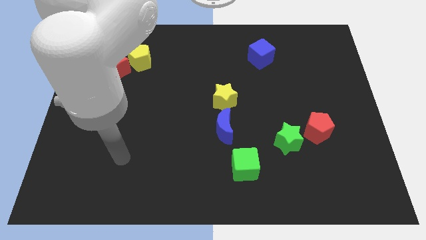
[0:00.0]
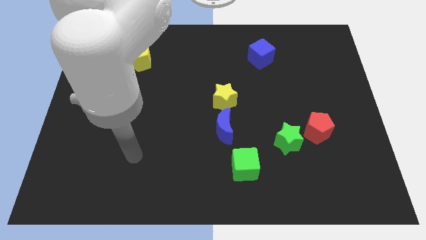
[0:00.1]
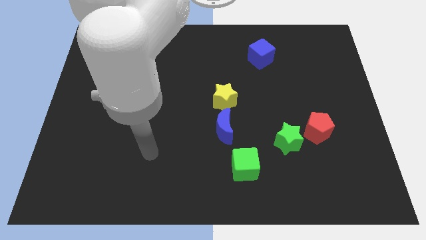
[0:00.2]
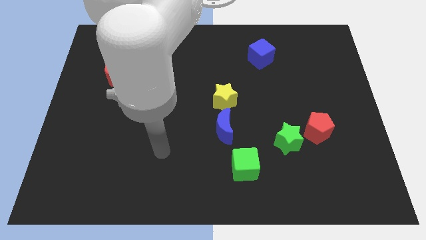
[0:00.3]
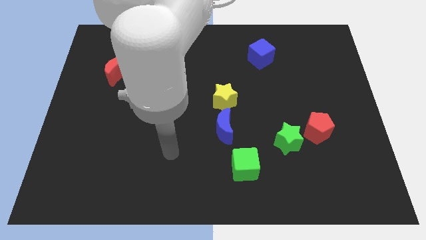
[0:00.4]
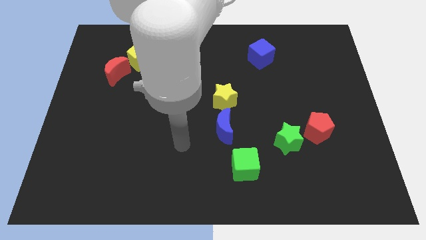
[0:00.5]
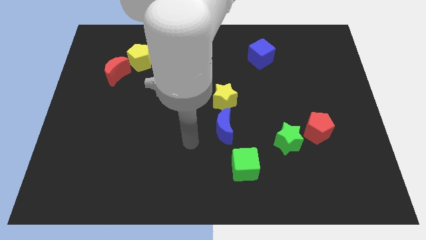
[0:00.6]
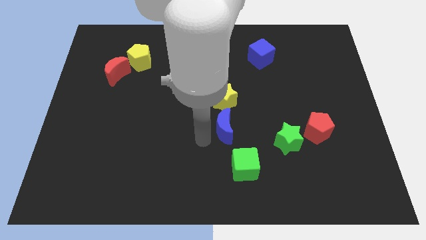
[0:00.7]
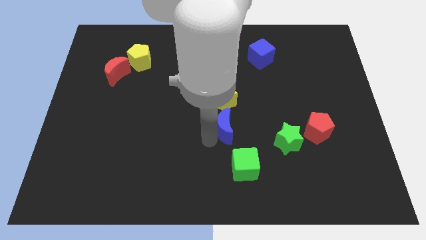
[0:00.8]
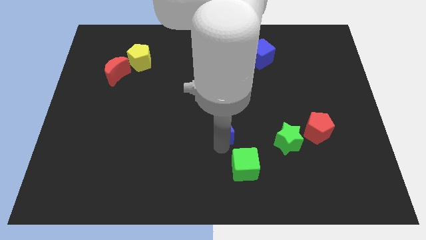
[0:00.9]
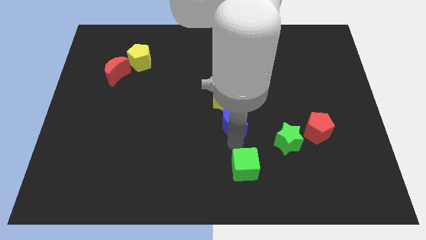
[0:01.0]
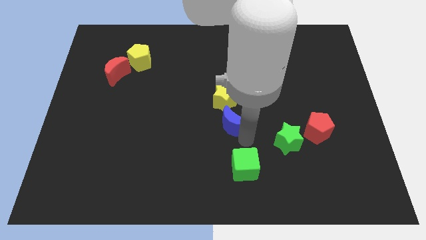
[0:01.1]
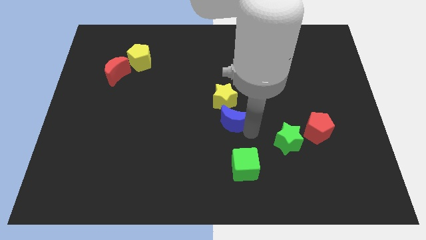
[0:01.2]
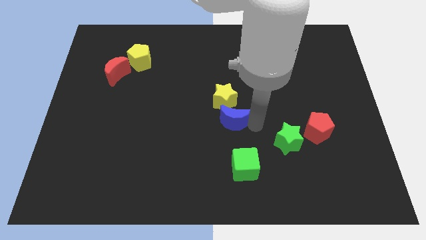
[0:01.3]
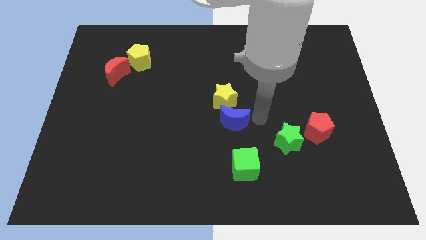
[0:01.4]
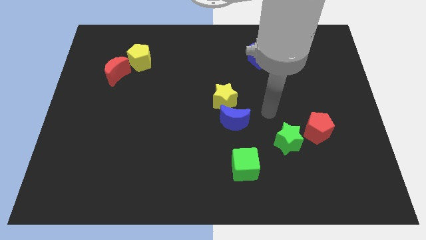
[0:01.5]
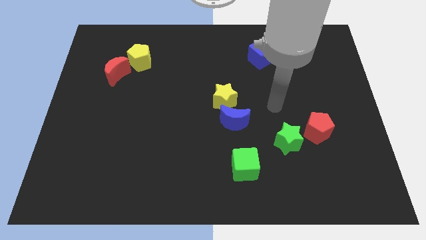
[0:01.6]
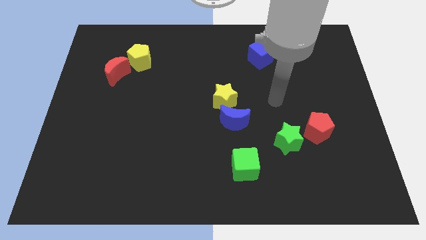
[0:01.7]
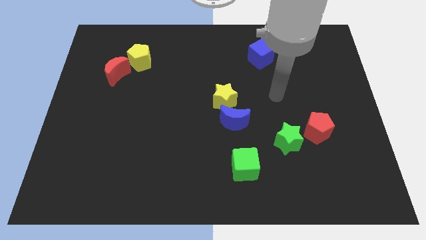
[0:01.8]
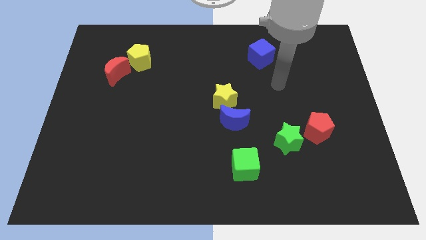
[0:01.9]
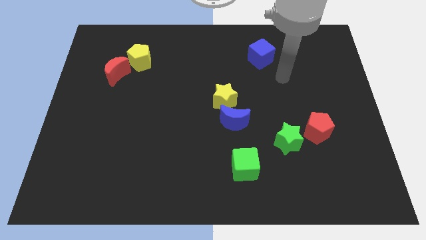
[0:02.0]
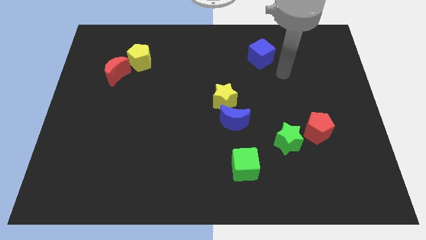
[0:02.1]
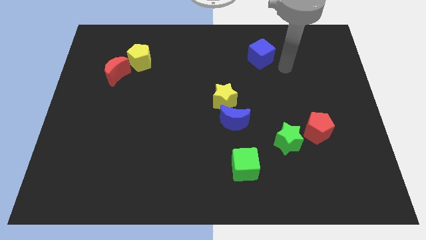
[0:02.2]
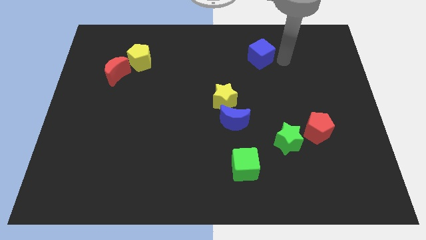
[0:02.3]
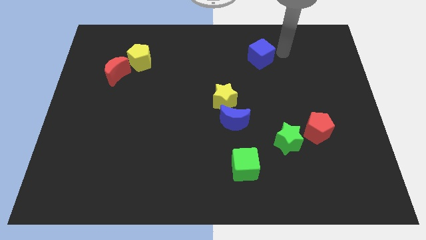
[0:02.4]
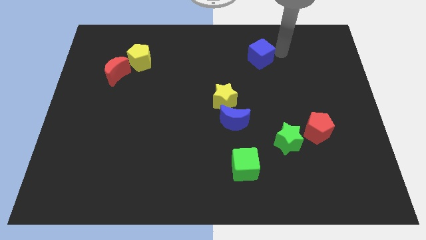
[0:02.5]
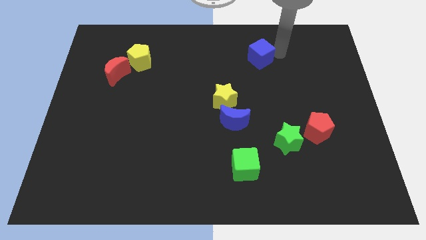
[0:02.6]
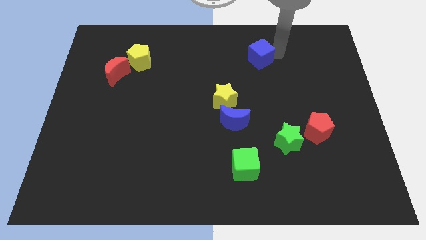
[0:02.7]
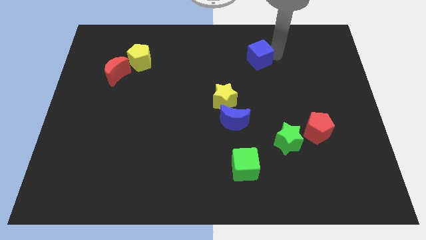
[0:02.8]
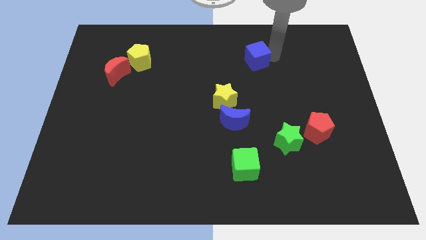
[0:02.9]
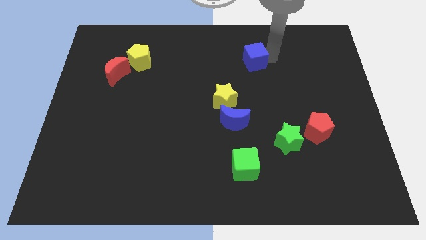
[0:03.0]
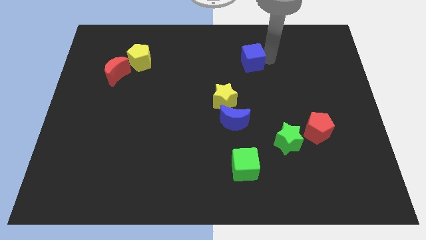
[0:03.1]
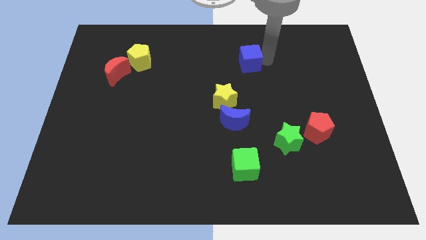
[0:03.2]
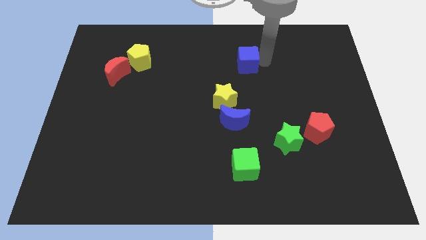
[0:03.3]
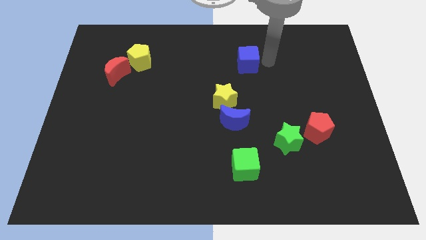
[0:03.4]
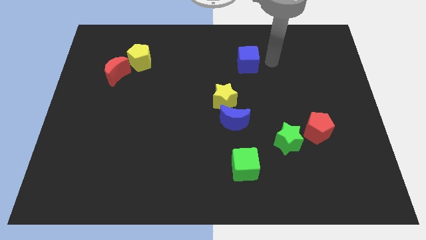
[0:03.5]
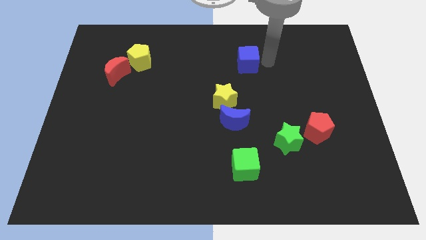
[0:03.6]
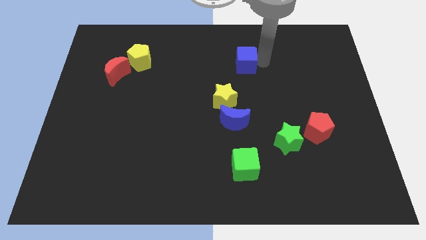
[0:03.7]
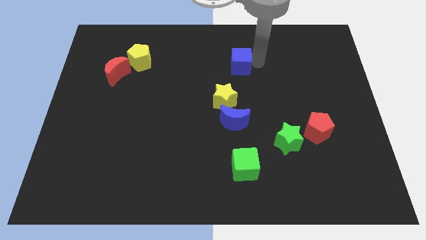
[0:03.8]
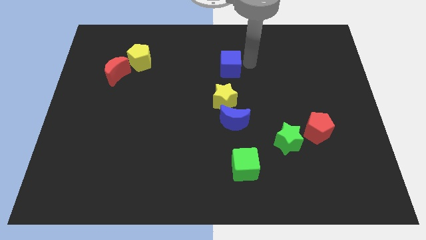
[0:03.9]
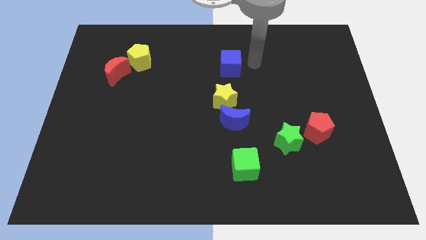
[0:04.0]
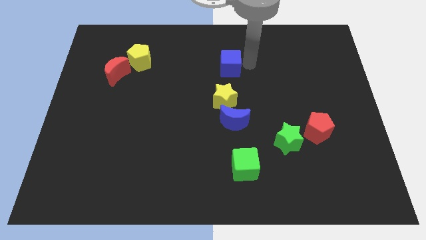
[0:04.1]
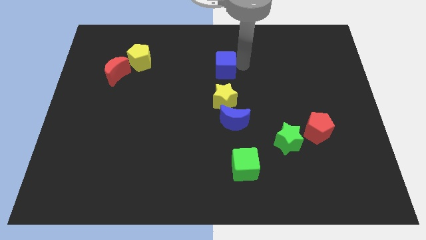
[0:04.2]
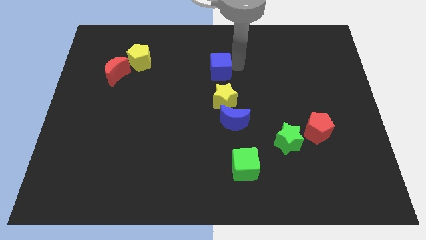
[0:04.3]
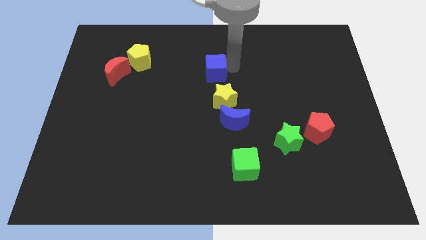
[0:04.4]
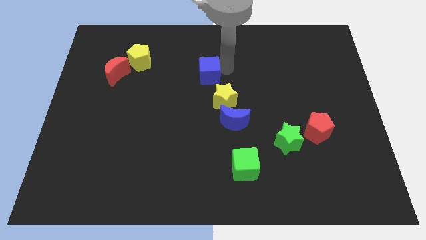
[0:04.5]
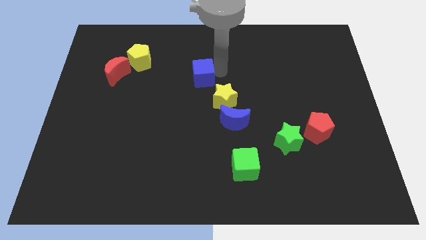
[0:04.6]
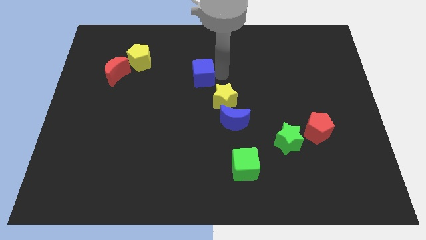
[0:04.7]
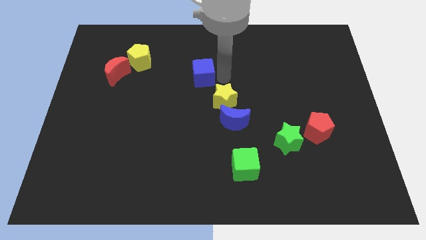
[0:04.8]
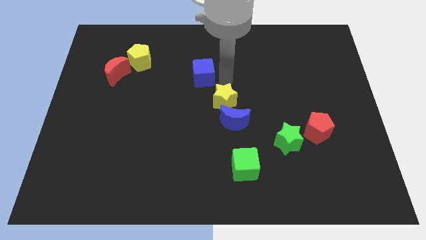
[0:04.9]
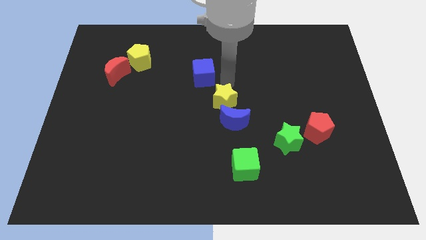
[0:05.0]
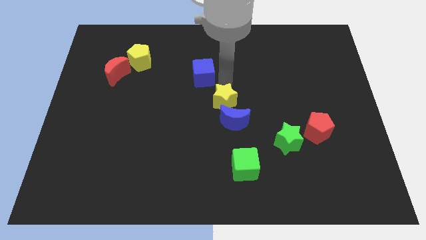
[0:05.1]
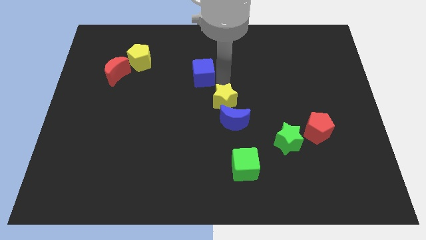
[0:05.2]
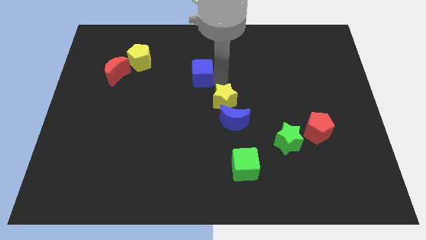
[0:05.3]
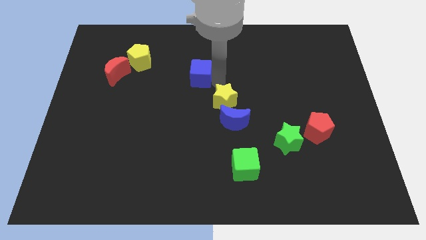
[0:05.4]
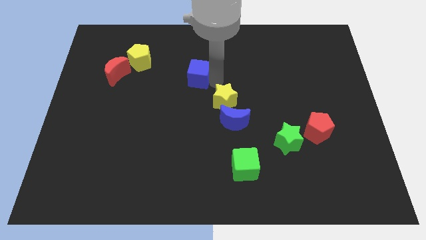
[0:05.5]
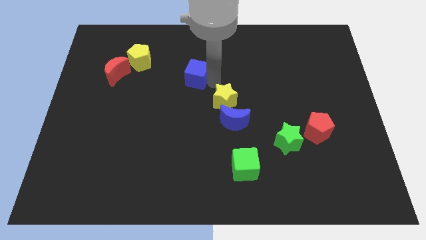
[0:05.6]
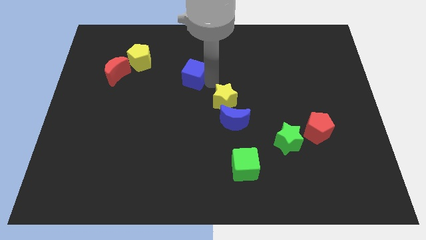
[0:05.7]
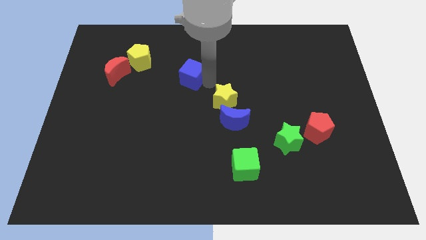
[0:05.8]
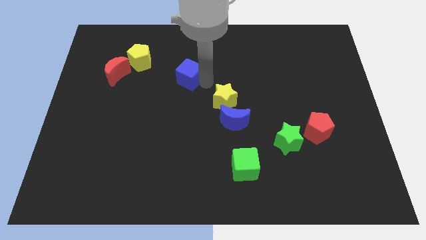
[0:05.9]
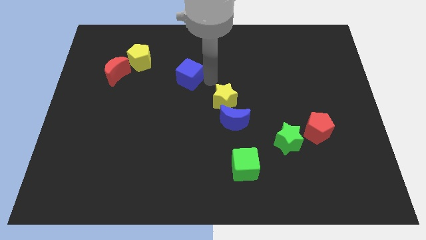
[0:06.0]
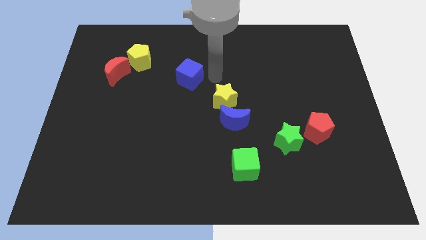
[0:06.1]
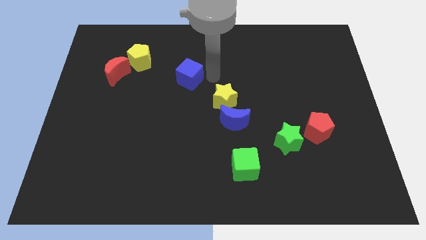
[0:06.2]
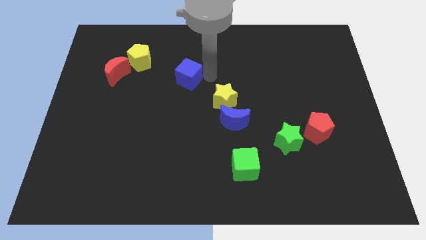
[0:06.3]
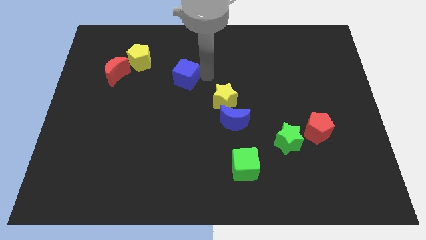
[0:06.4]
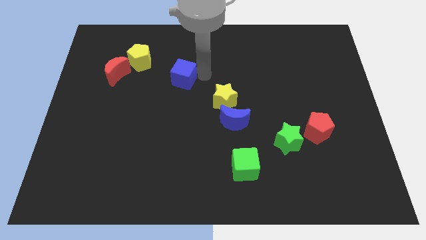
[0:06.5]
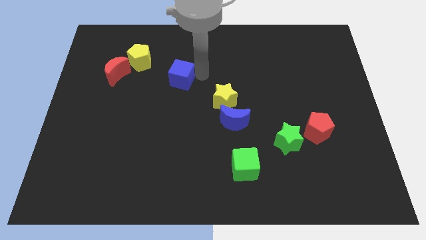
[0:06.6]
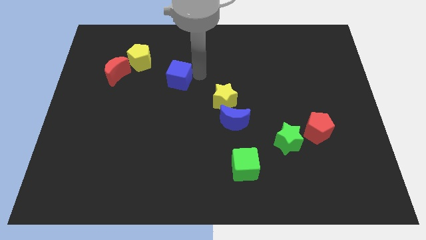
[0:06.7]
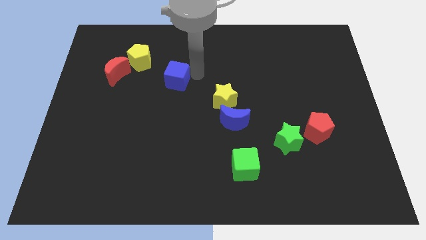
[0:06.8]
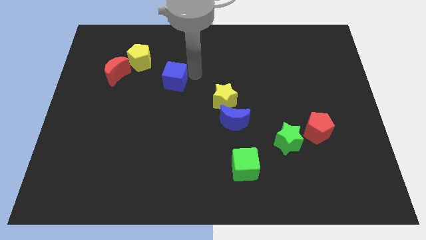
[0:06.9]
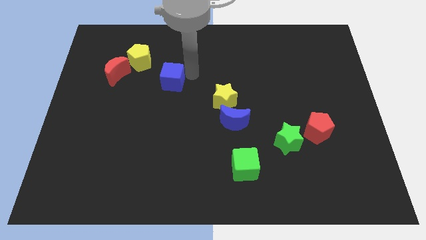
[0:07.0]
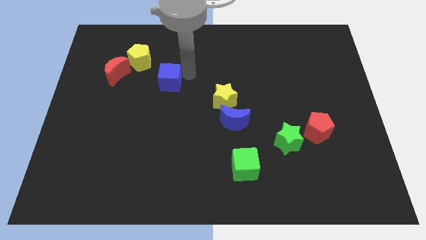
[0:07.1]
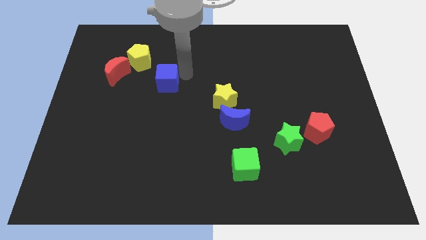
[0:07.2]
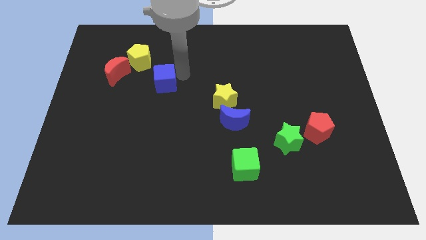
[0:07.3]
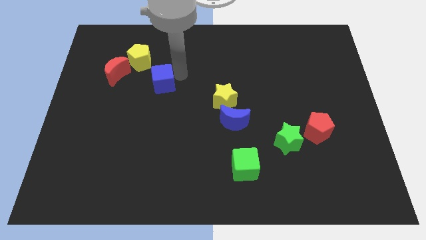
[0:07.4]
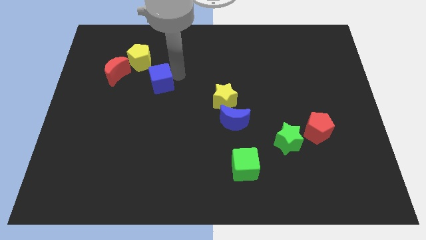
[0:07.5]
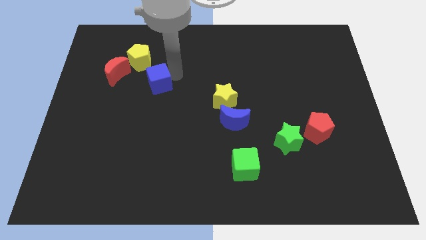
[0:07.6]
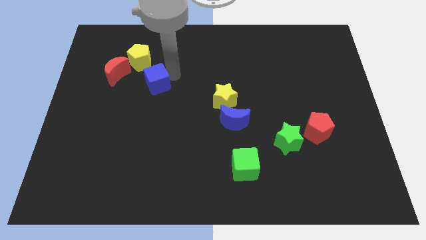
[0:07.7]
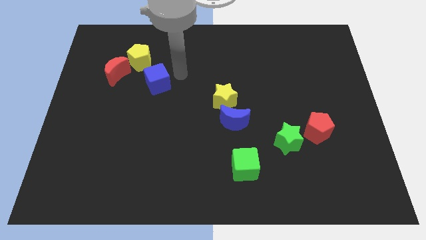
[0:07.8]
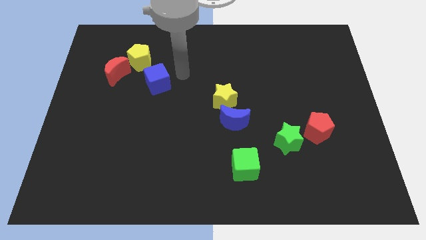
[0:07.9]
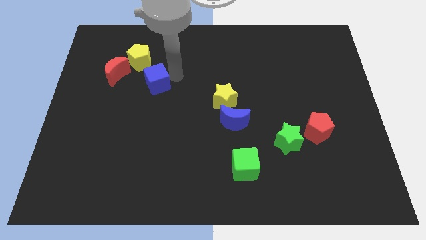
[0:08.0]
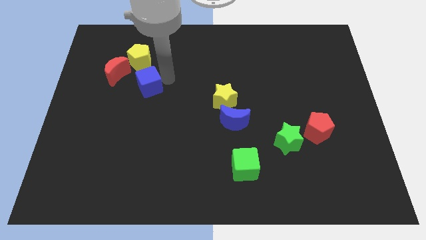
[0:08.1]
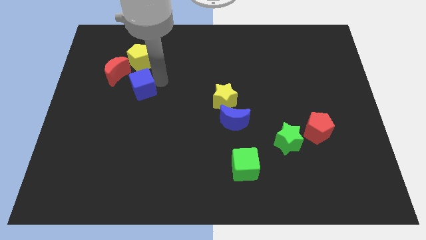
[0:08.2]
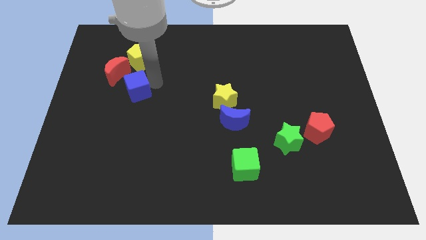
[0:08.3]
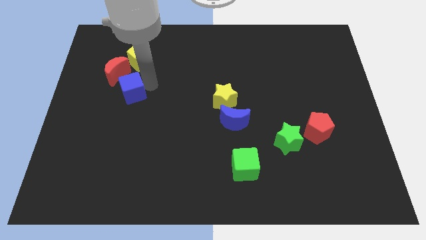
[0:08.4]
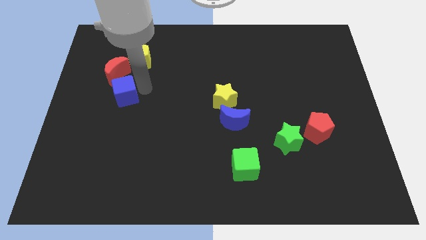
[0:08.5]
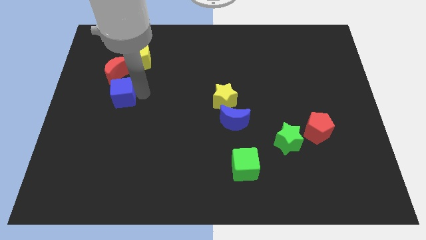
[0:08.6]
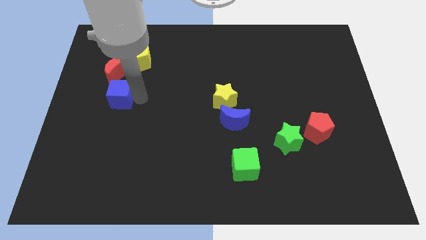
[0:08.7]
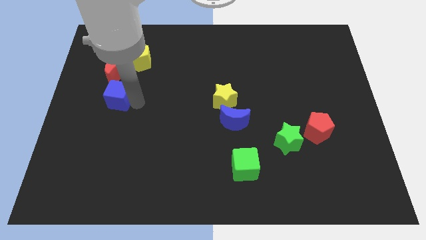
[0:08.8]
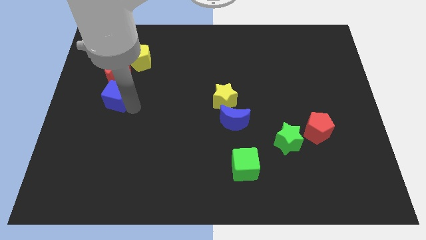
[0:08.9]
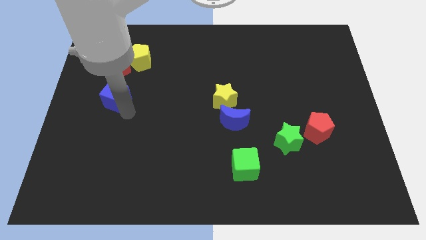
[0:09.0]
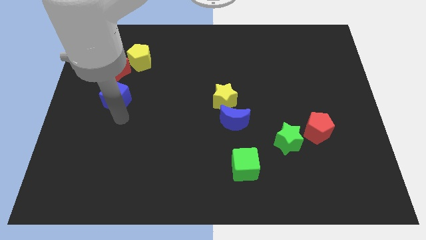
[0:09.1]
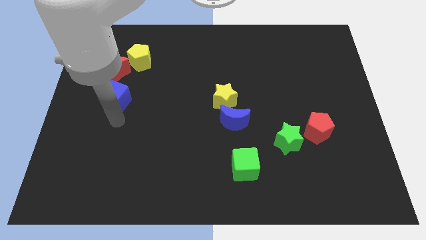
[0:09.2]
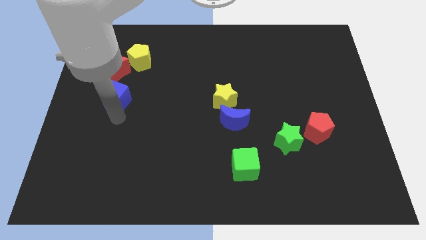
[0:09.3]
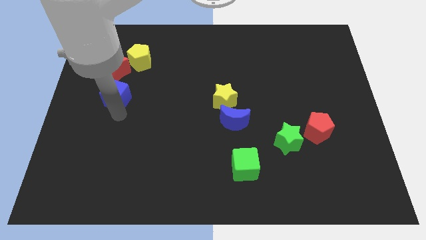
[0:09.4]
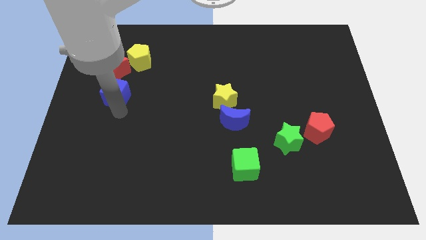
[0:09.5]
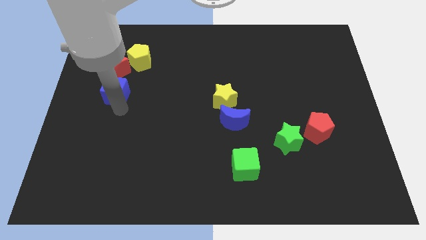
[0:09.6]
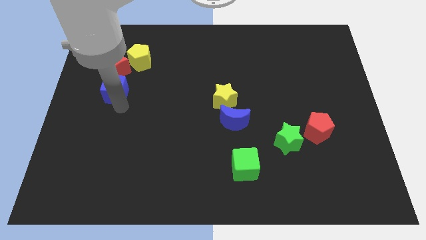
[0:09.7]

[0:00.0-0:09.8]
move the blue cube diagonally down and to the left of the yellow pentagon
